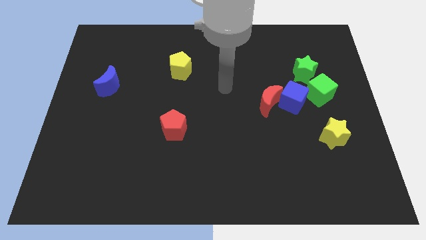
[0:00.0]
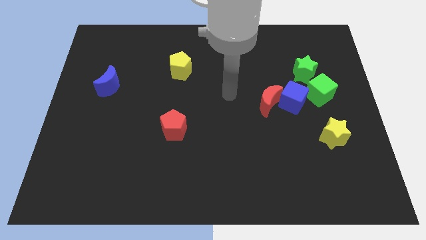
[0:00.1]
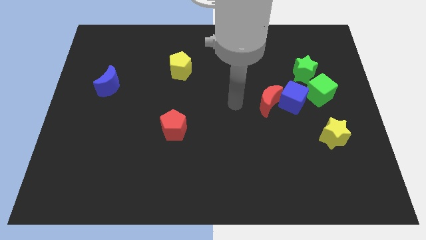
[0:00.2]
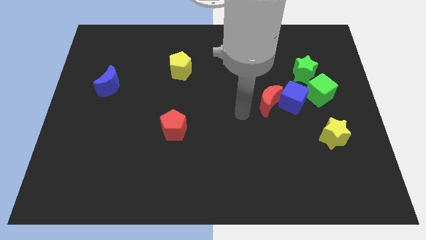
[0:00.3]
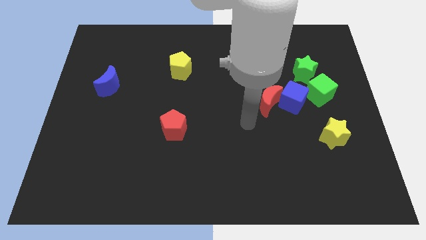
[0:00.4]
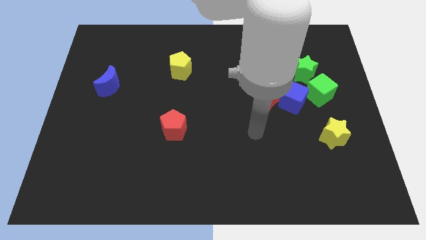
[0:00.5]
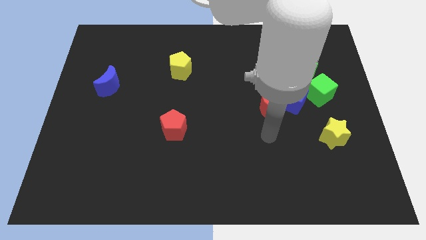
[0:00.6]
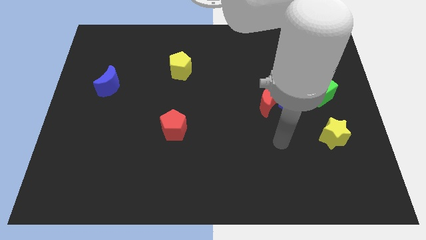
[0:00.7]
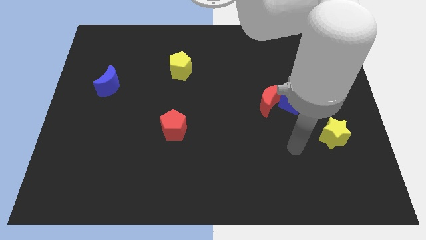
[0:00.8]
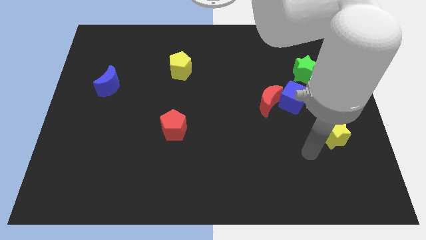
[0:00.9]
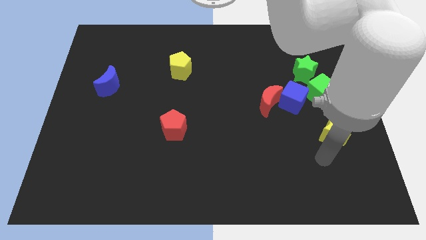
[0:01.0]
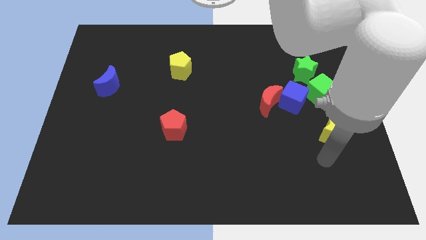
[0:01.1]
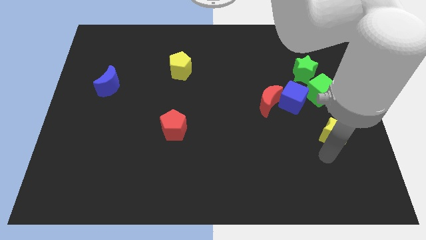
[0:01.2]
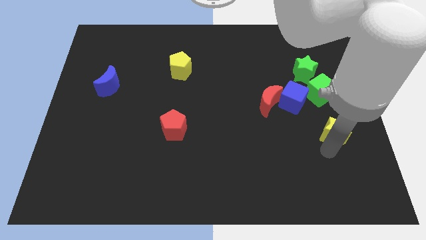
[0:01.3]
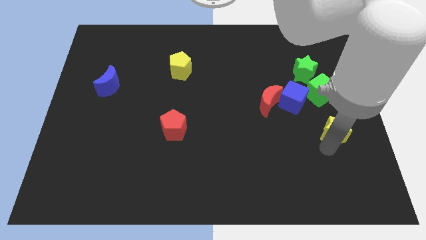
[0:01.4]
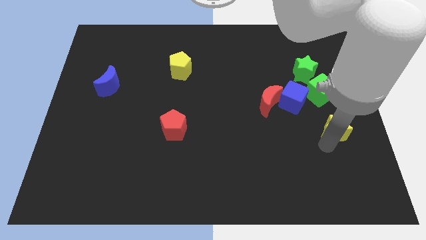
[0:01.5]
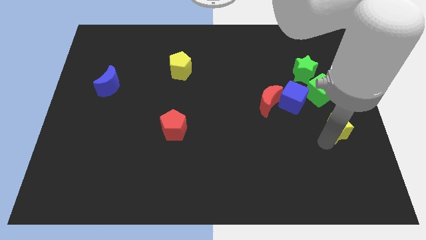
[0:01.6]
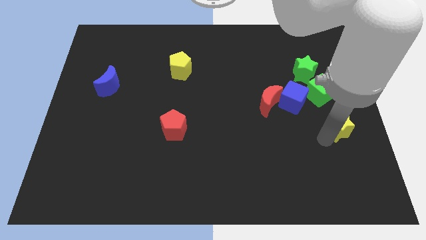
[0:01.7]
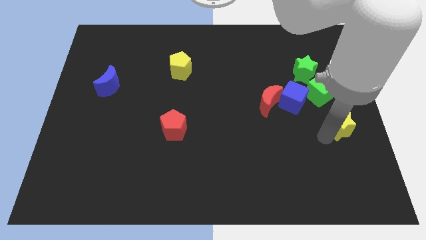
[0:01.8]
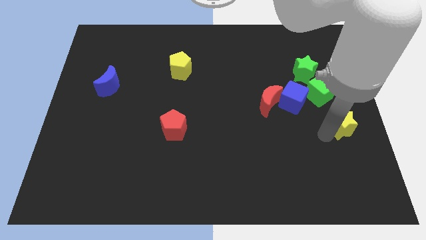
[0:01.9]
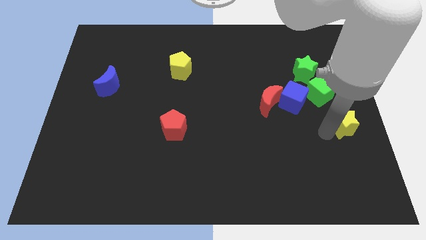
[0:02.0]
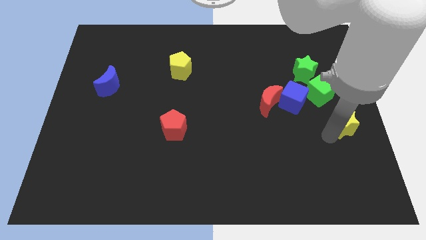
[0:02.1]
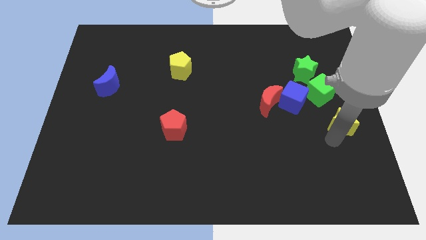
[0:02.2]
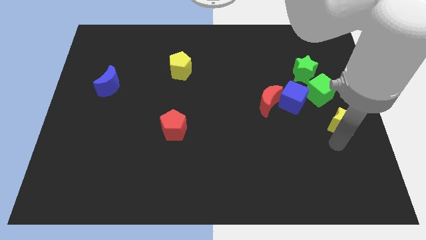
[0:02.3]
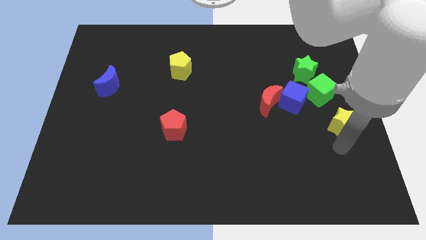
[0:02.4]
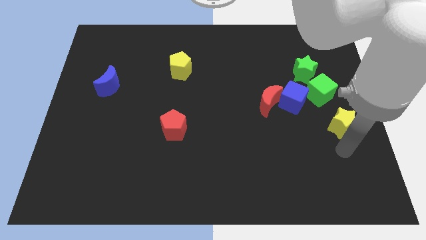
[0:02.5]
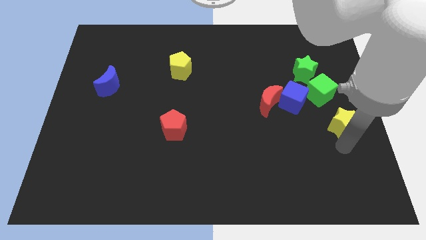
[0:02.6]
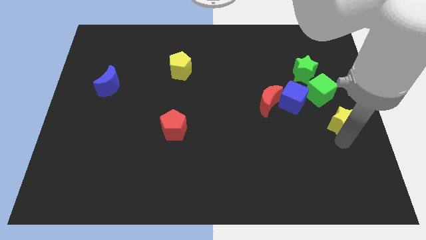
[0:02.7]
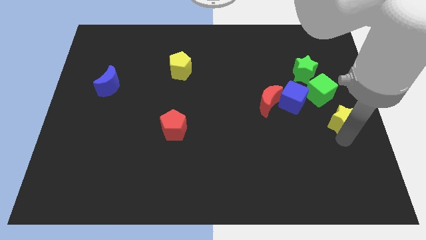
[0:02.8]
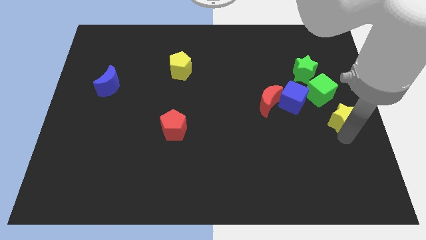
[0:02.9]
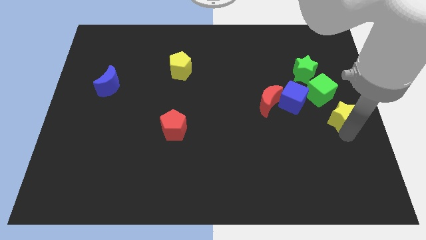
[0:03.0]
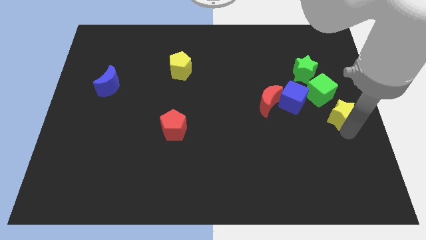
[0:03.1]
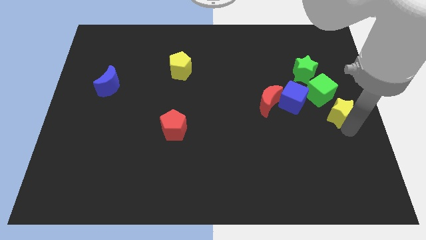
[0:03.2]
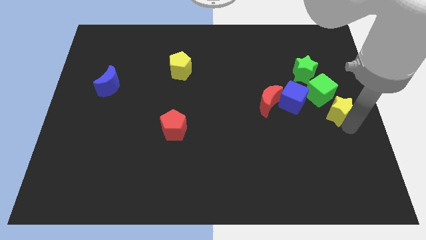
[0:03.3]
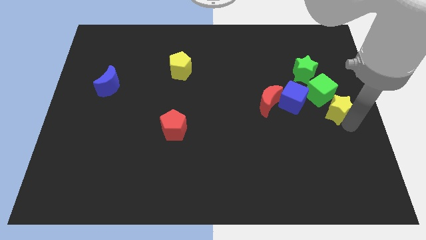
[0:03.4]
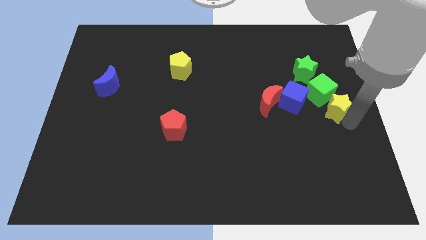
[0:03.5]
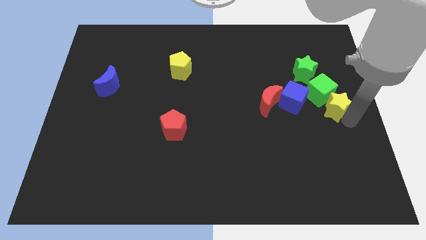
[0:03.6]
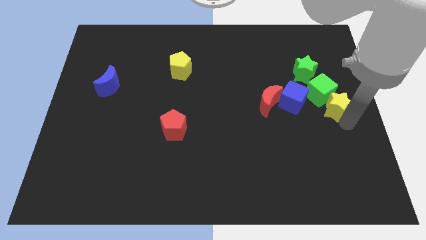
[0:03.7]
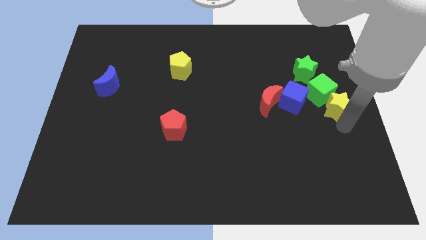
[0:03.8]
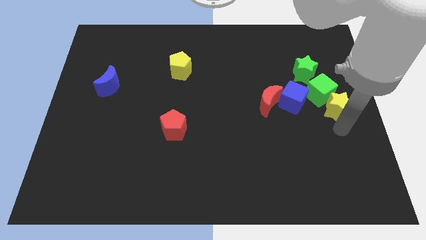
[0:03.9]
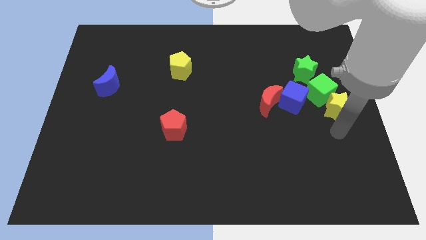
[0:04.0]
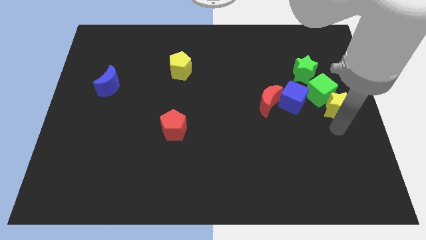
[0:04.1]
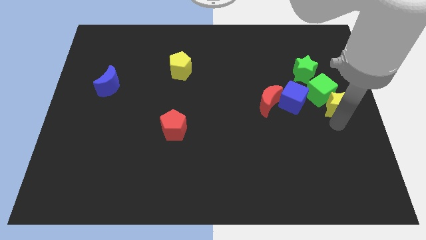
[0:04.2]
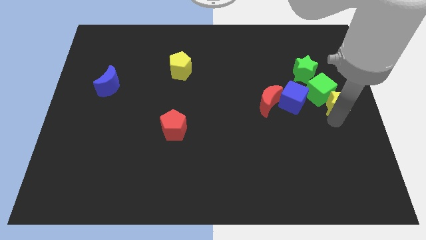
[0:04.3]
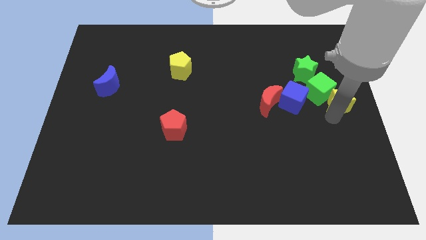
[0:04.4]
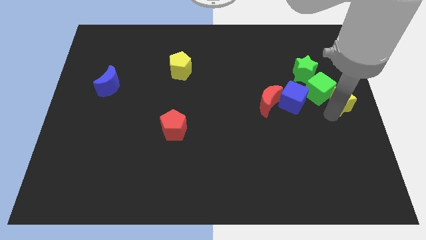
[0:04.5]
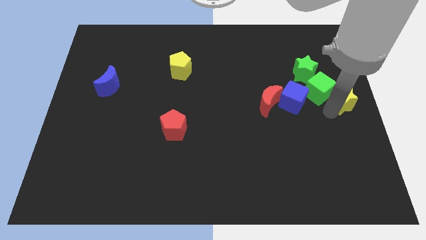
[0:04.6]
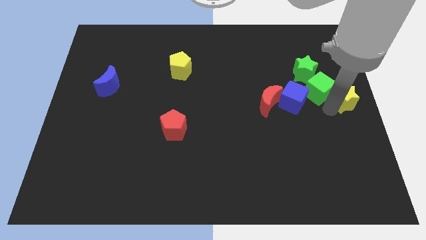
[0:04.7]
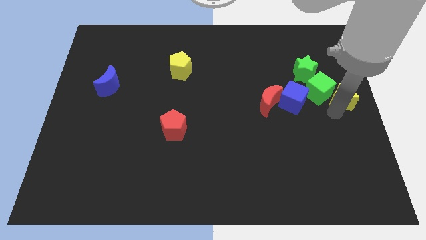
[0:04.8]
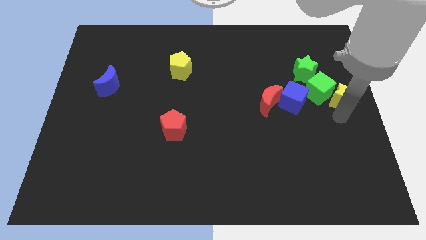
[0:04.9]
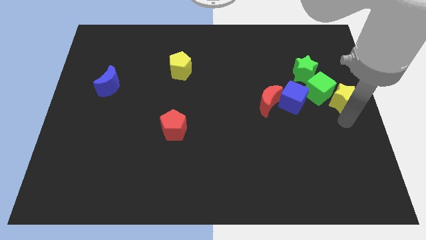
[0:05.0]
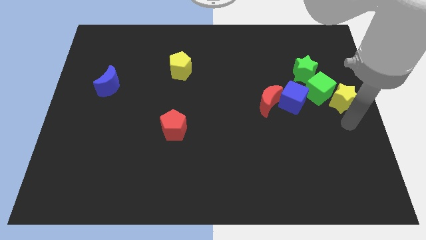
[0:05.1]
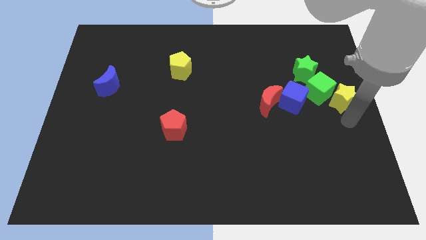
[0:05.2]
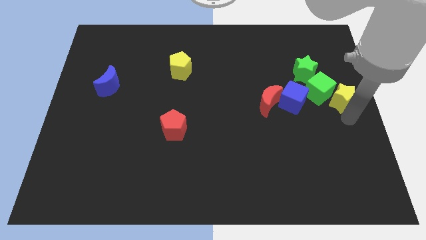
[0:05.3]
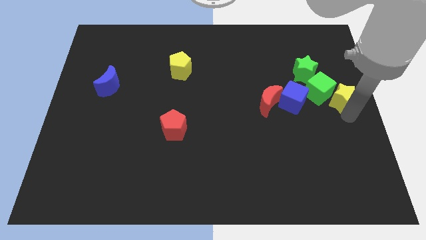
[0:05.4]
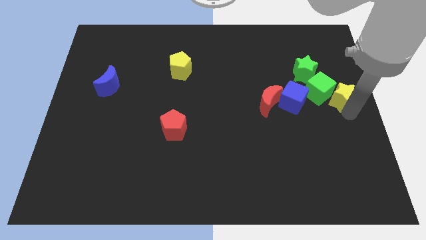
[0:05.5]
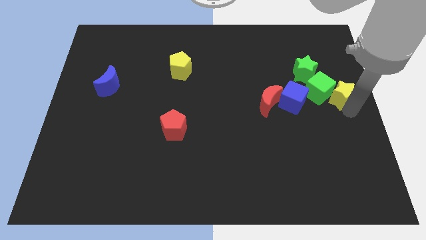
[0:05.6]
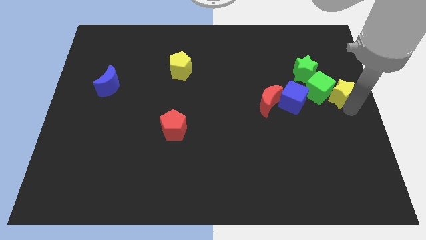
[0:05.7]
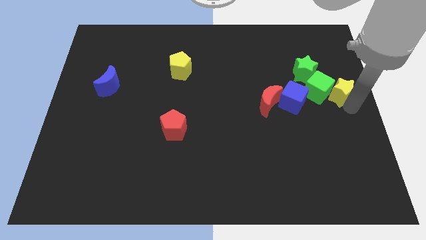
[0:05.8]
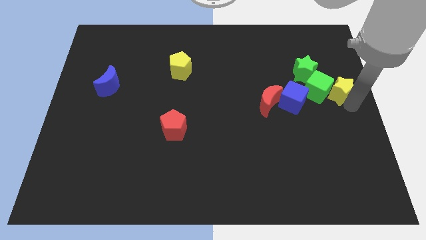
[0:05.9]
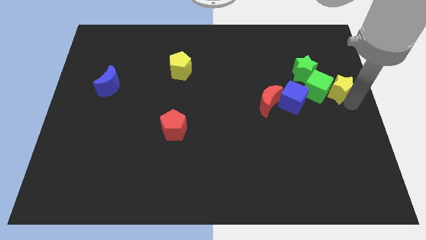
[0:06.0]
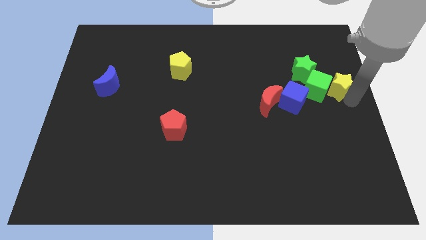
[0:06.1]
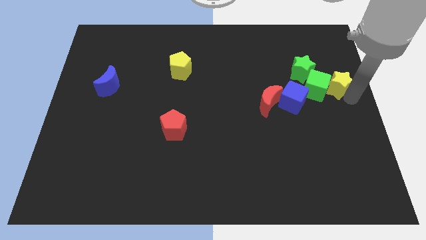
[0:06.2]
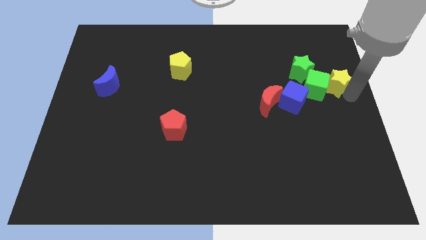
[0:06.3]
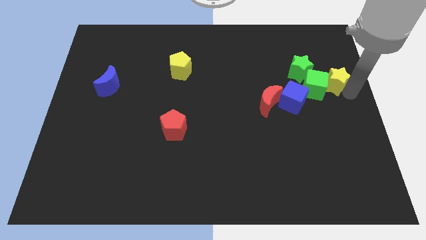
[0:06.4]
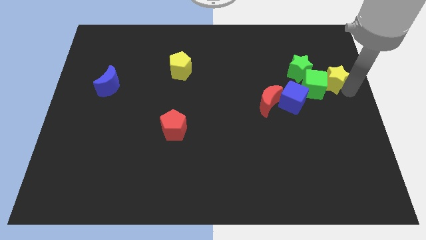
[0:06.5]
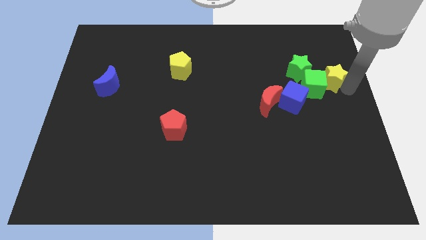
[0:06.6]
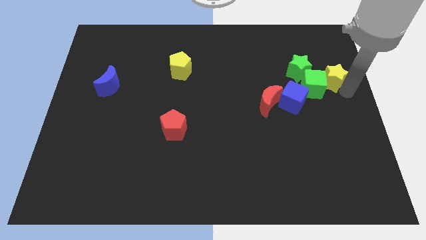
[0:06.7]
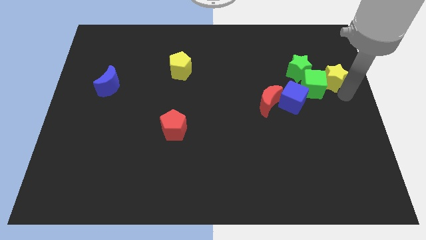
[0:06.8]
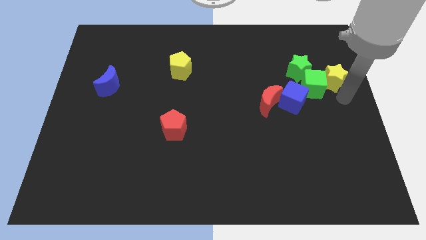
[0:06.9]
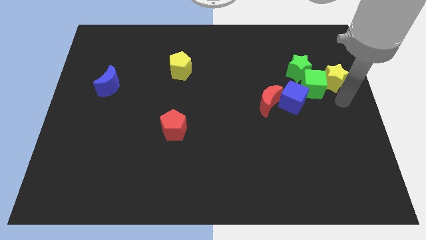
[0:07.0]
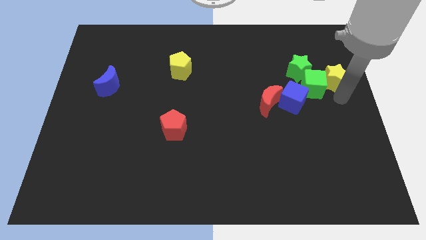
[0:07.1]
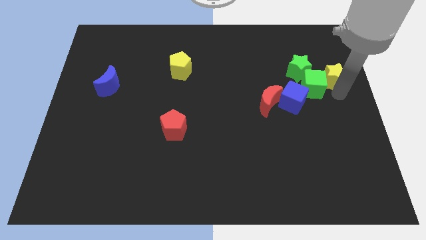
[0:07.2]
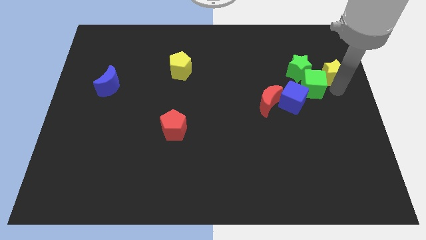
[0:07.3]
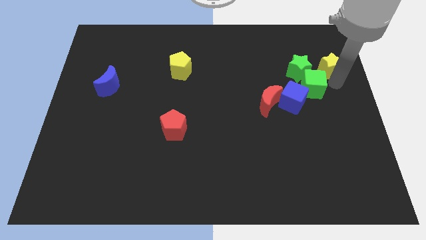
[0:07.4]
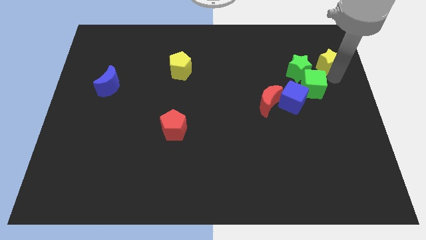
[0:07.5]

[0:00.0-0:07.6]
move the yellow star diagonally up and to the right of the green star
